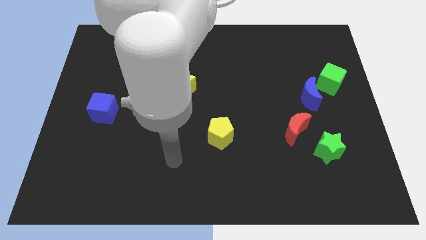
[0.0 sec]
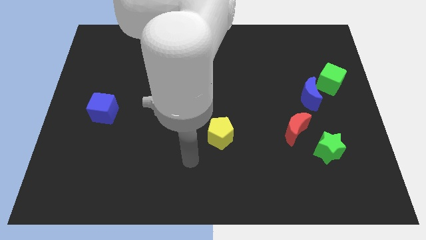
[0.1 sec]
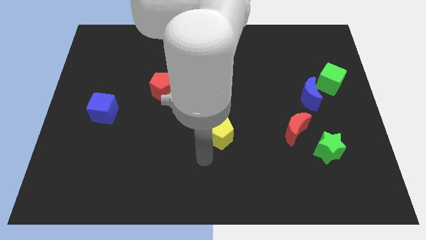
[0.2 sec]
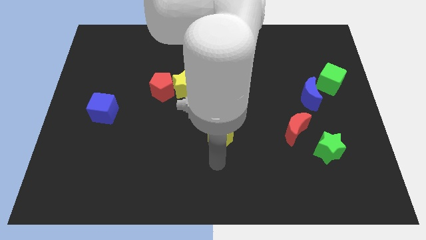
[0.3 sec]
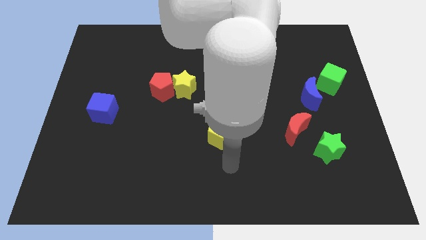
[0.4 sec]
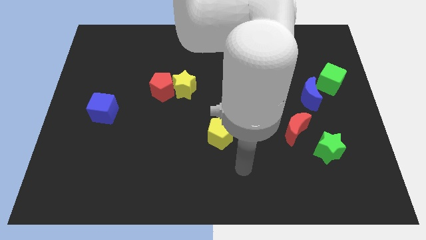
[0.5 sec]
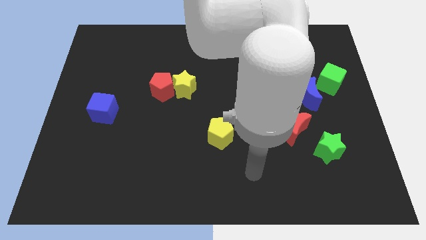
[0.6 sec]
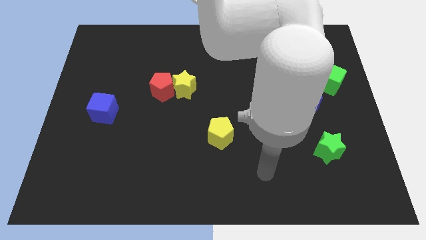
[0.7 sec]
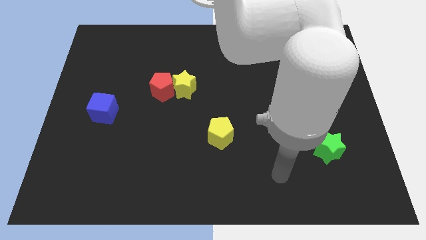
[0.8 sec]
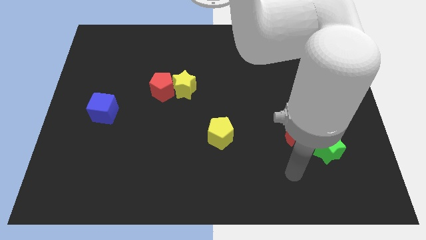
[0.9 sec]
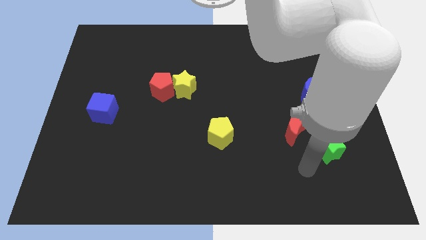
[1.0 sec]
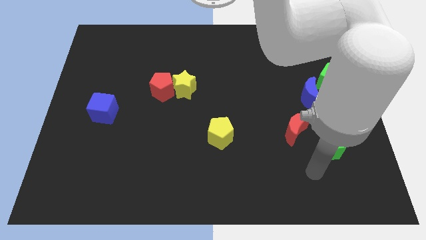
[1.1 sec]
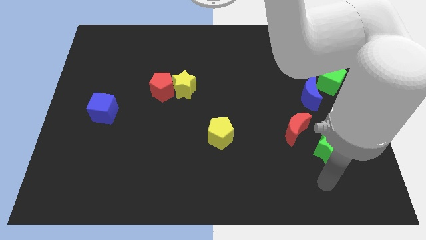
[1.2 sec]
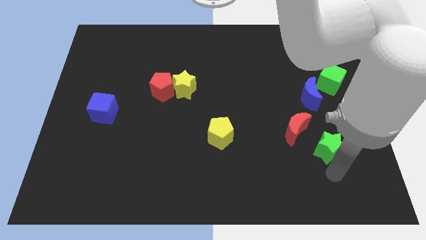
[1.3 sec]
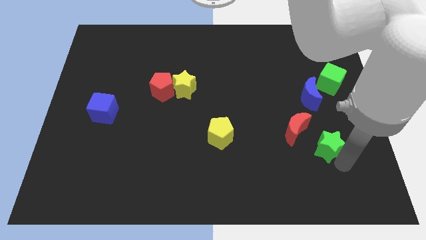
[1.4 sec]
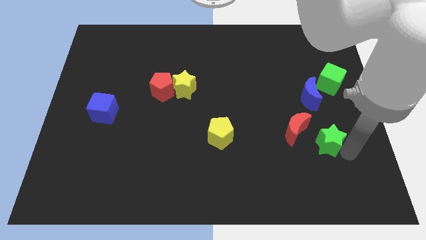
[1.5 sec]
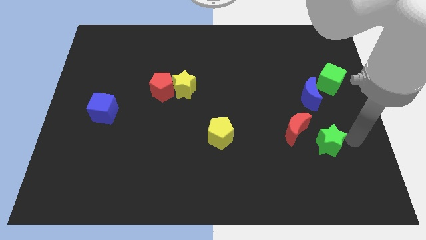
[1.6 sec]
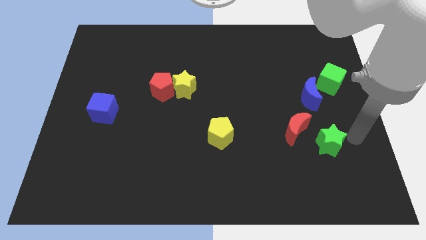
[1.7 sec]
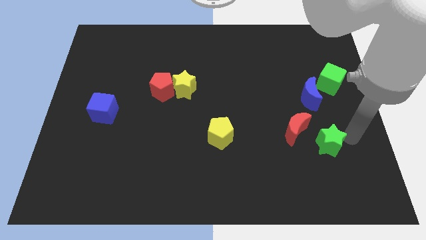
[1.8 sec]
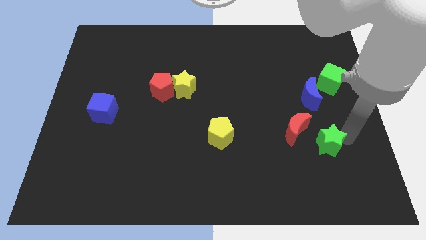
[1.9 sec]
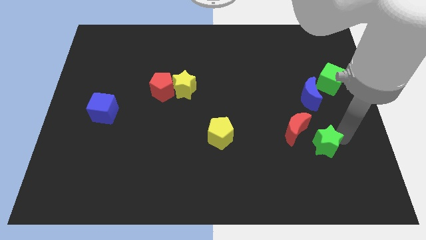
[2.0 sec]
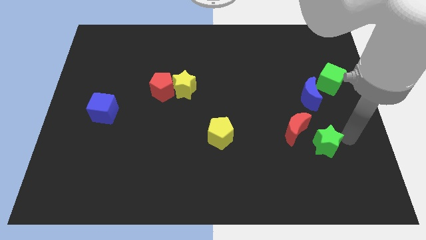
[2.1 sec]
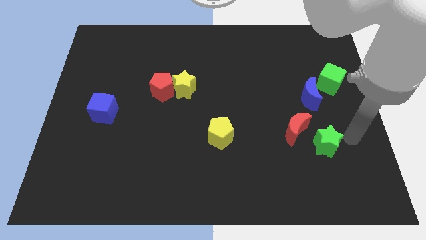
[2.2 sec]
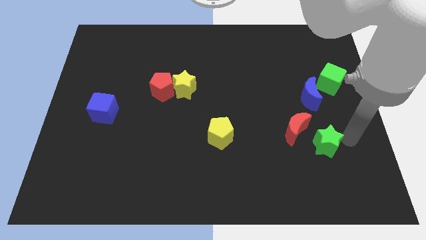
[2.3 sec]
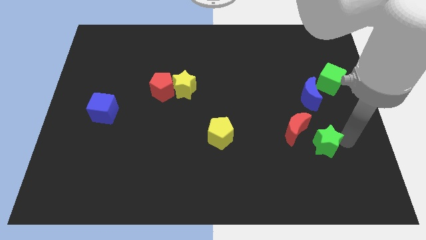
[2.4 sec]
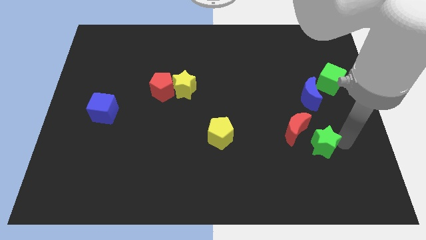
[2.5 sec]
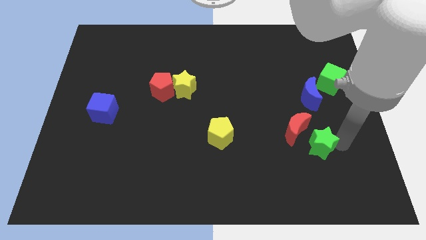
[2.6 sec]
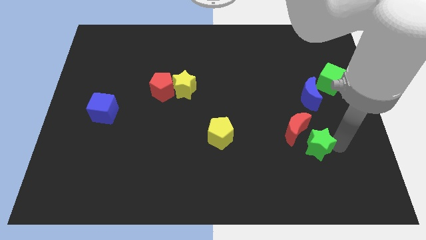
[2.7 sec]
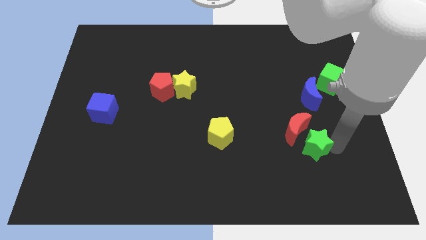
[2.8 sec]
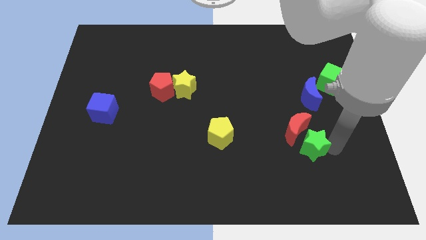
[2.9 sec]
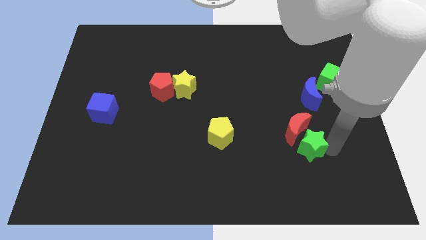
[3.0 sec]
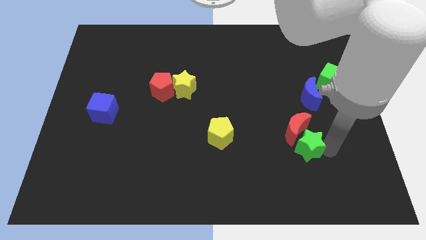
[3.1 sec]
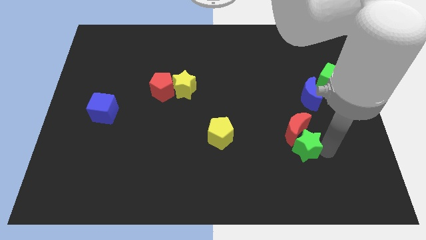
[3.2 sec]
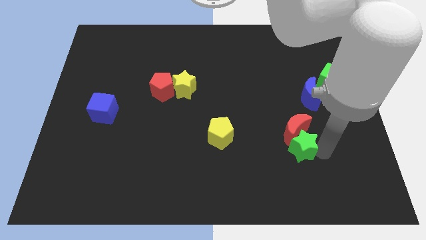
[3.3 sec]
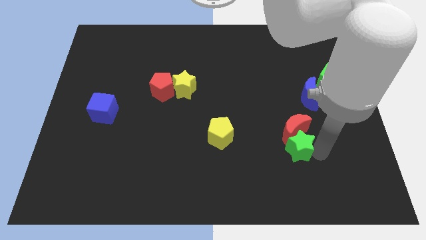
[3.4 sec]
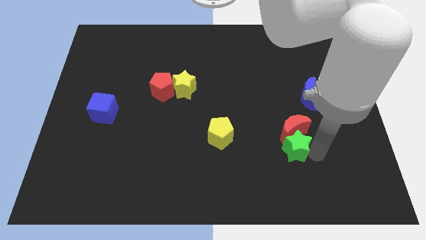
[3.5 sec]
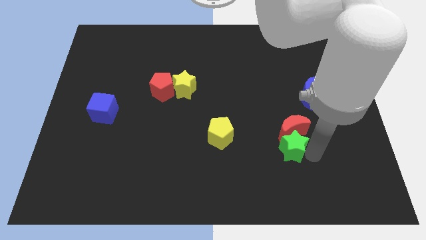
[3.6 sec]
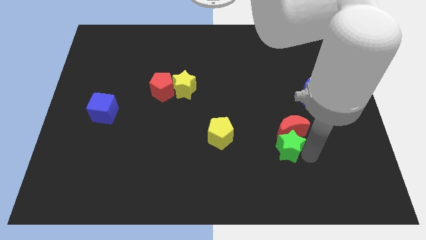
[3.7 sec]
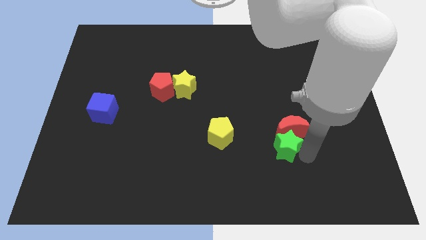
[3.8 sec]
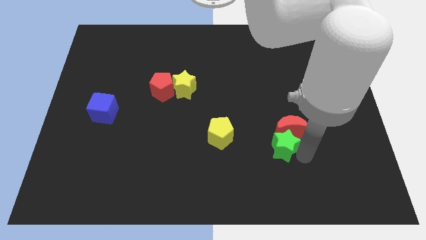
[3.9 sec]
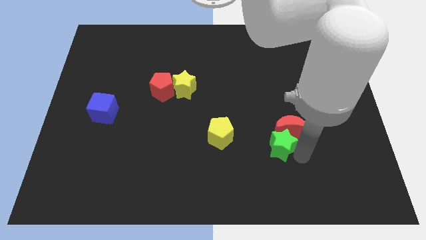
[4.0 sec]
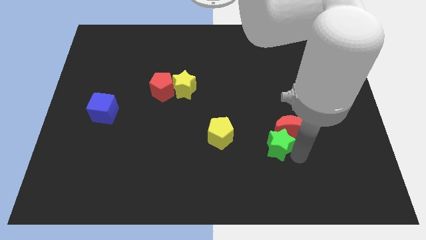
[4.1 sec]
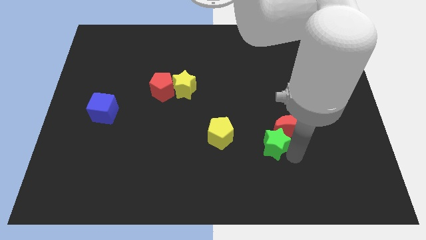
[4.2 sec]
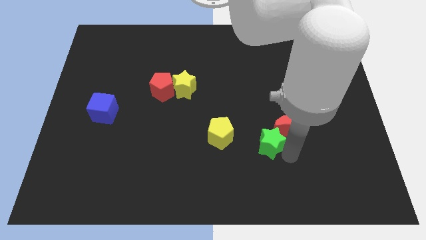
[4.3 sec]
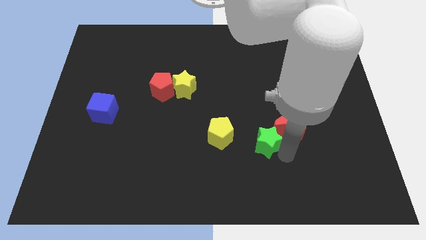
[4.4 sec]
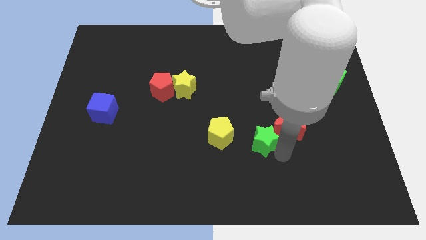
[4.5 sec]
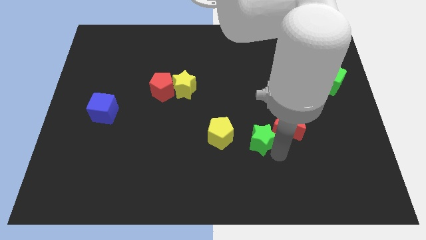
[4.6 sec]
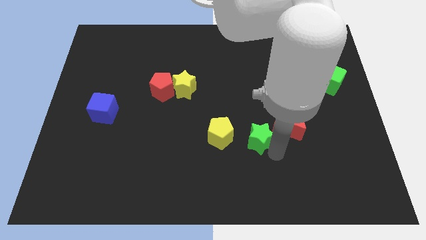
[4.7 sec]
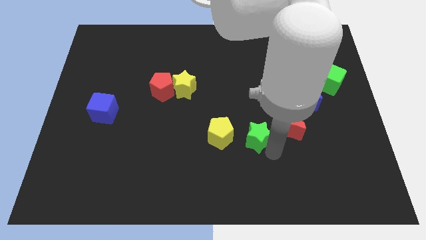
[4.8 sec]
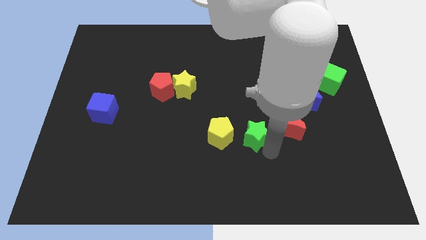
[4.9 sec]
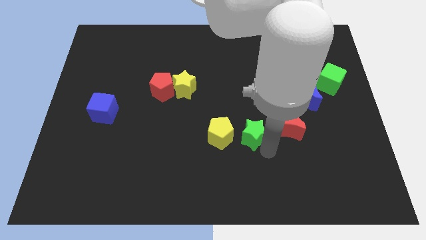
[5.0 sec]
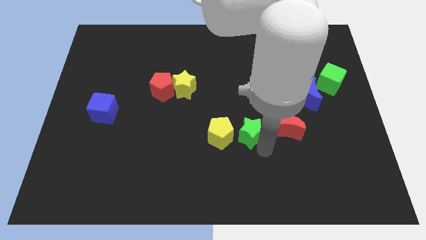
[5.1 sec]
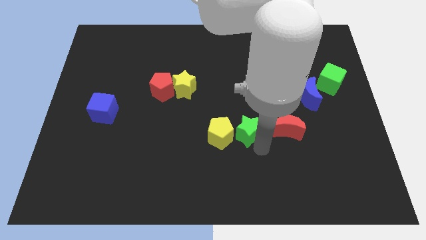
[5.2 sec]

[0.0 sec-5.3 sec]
put the green star to the center of the board

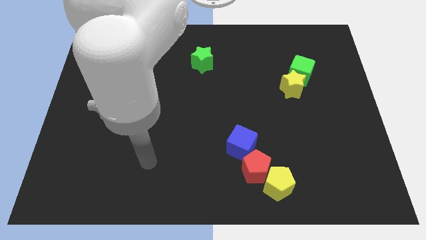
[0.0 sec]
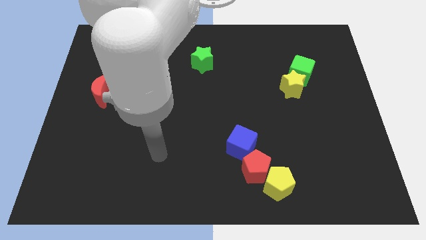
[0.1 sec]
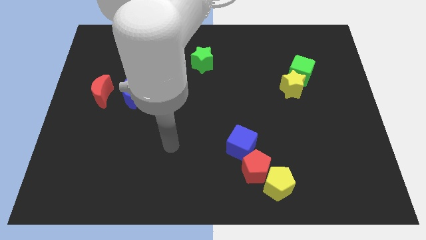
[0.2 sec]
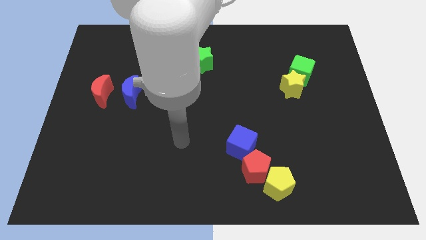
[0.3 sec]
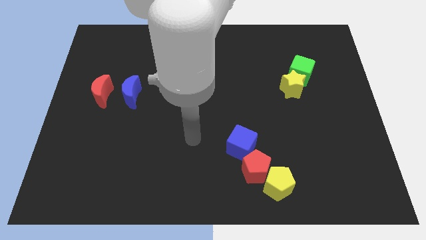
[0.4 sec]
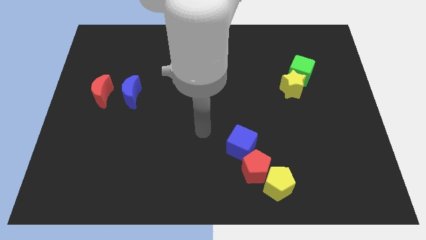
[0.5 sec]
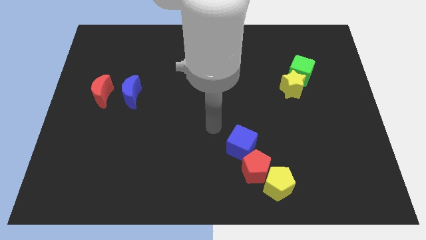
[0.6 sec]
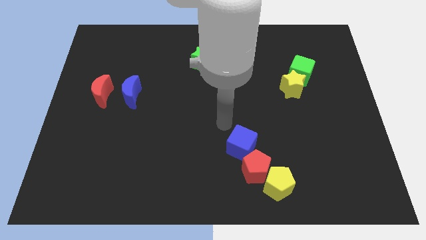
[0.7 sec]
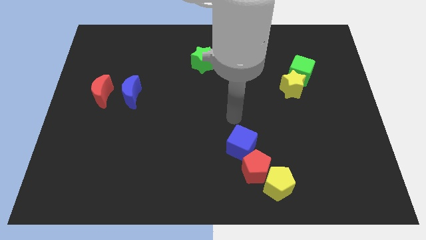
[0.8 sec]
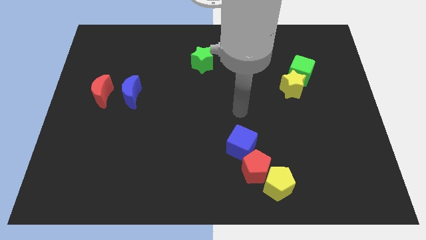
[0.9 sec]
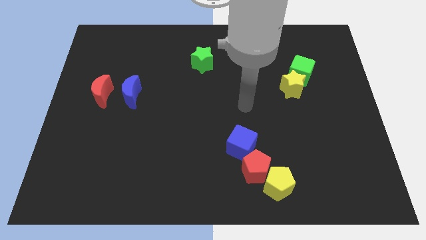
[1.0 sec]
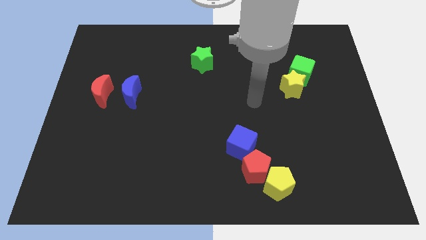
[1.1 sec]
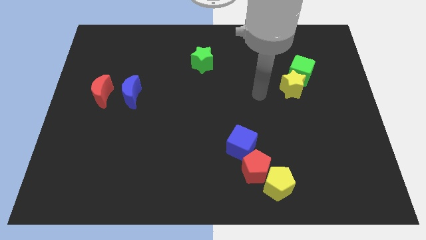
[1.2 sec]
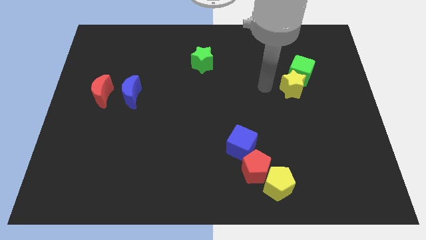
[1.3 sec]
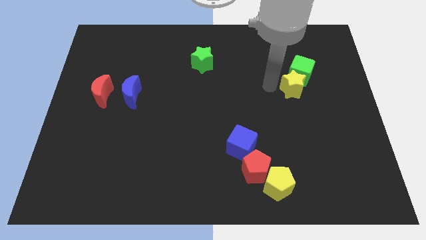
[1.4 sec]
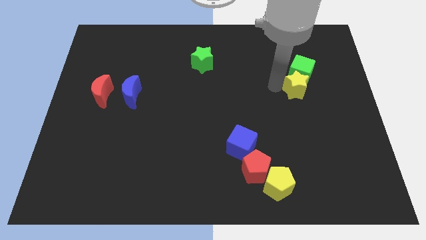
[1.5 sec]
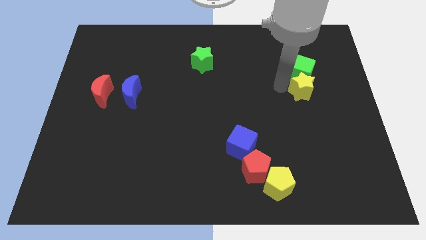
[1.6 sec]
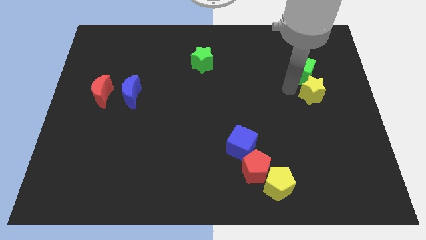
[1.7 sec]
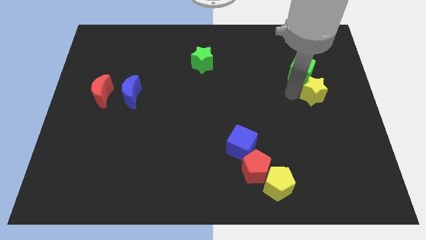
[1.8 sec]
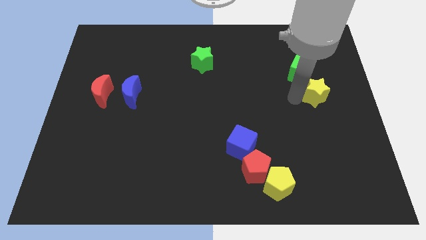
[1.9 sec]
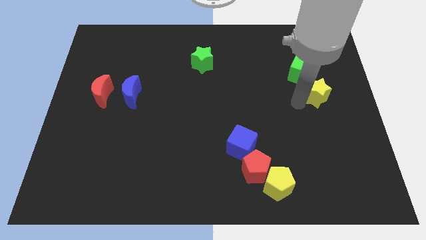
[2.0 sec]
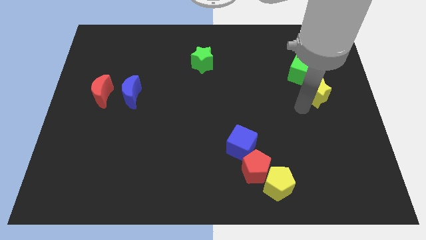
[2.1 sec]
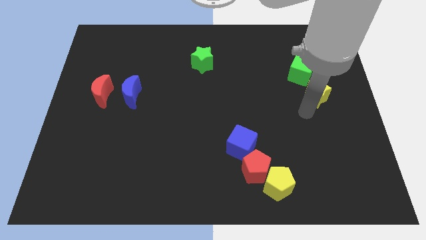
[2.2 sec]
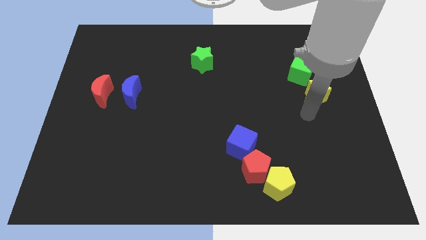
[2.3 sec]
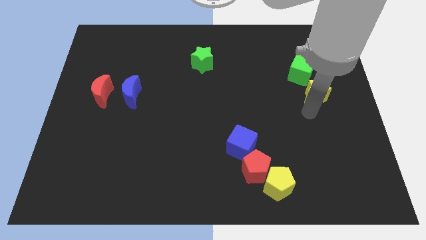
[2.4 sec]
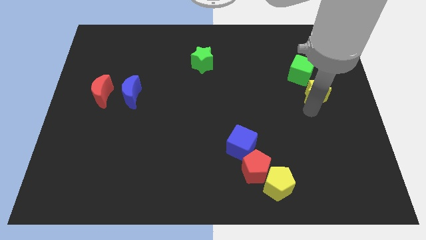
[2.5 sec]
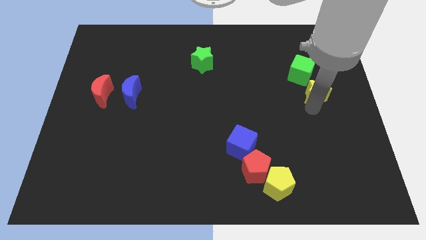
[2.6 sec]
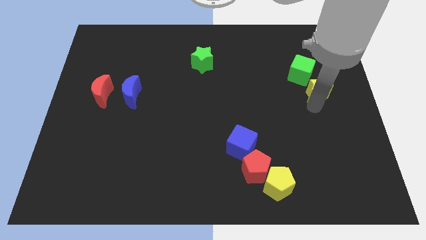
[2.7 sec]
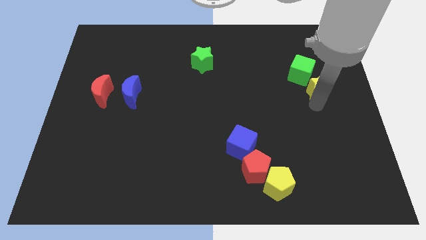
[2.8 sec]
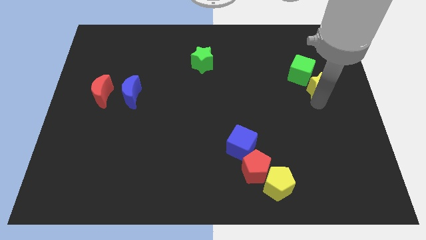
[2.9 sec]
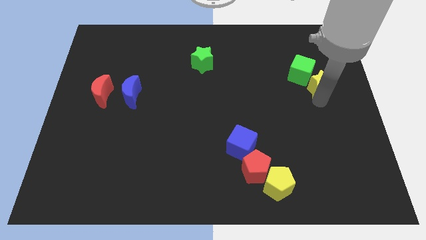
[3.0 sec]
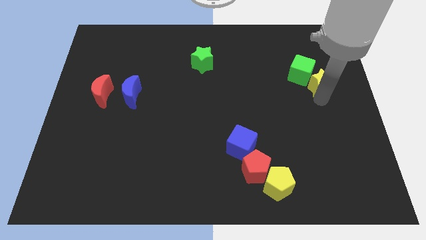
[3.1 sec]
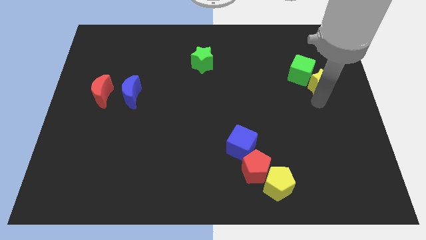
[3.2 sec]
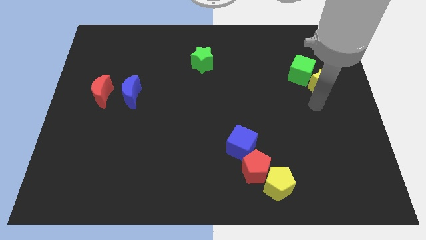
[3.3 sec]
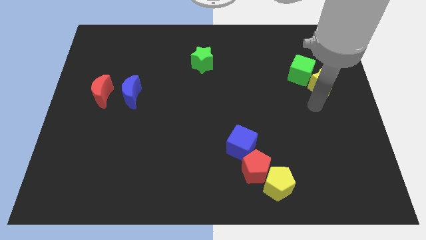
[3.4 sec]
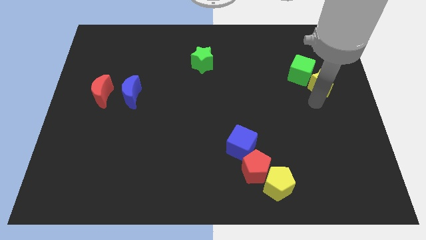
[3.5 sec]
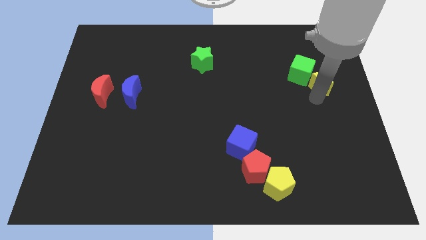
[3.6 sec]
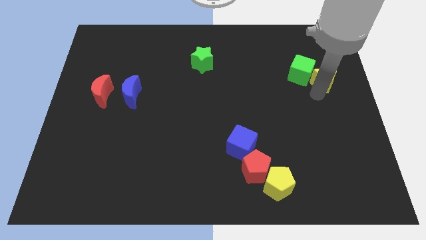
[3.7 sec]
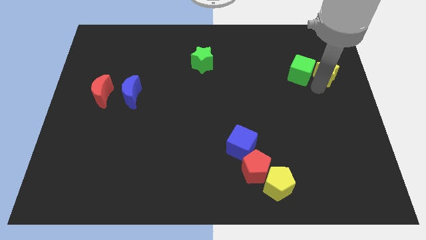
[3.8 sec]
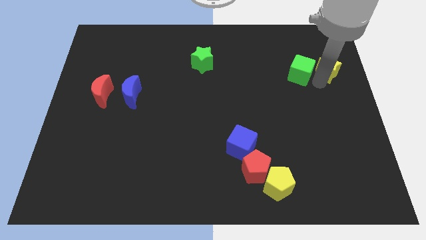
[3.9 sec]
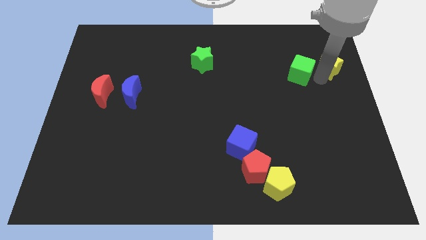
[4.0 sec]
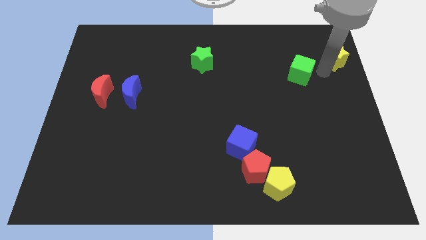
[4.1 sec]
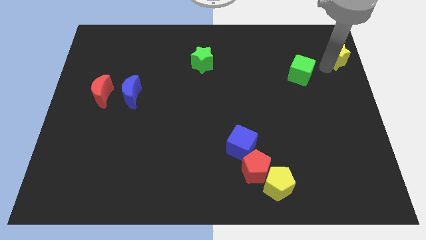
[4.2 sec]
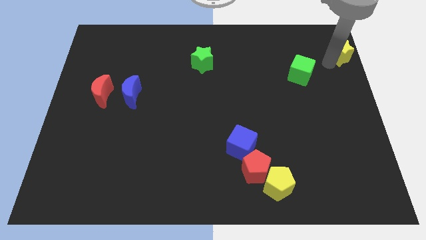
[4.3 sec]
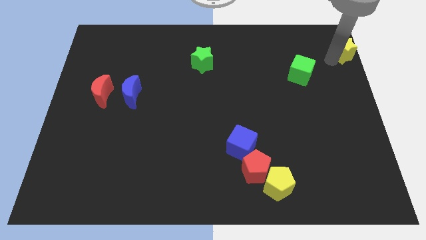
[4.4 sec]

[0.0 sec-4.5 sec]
move the yellow star to the upper right corner
